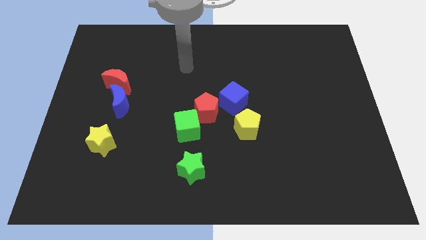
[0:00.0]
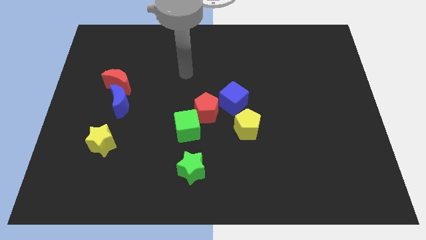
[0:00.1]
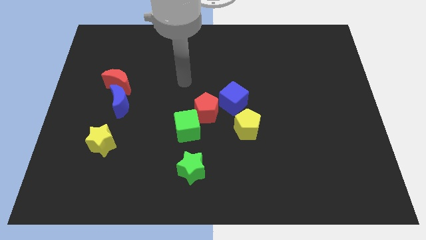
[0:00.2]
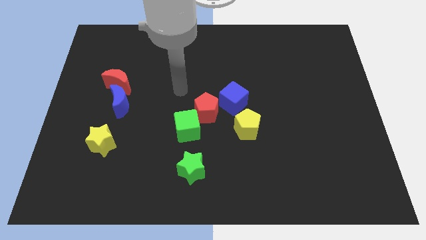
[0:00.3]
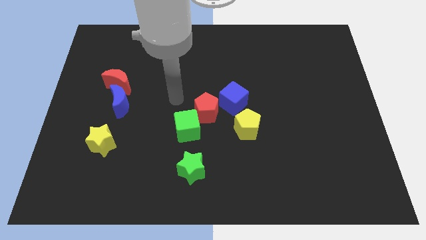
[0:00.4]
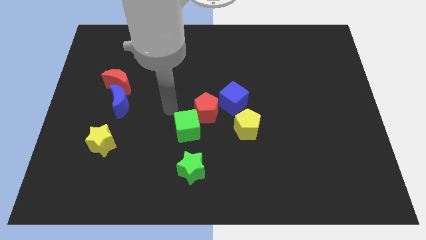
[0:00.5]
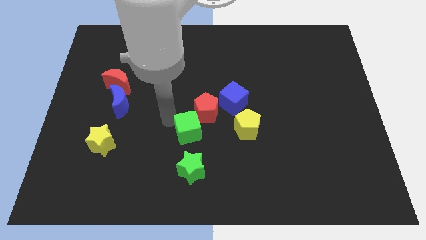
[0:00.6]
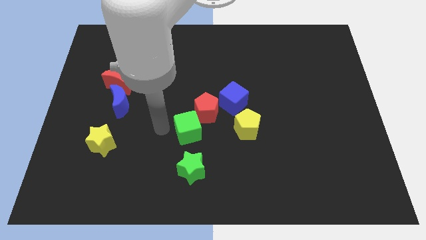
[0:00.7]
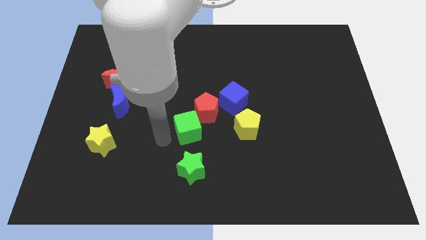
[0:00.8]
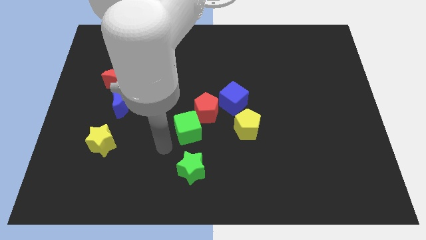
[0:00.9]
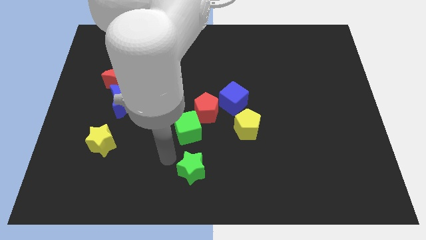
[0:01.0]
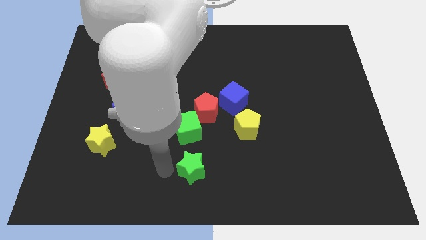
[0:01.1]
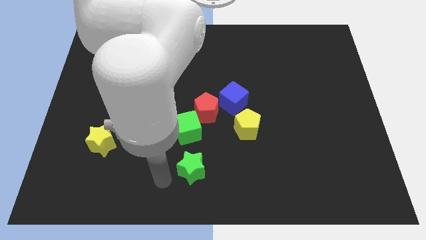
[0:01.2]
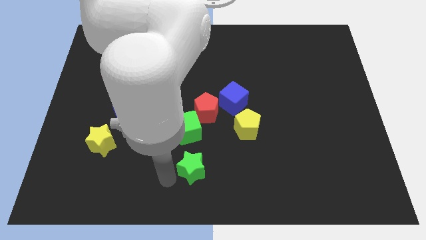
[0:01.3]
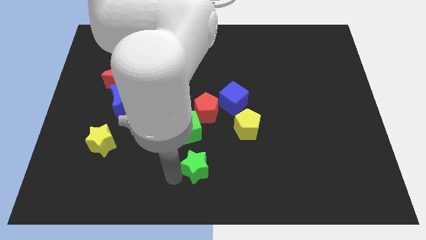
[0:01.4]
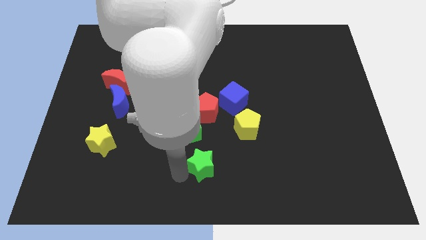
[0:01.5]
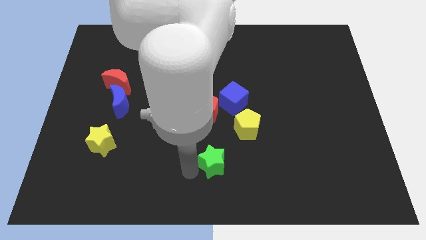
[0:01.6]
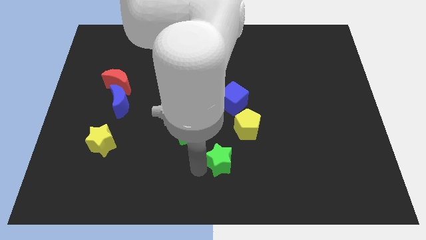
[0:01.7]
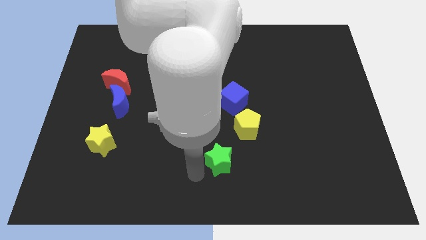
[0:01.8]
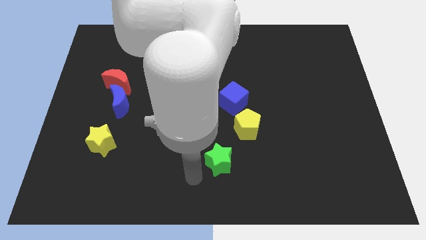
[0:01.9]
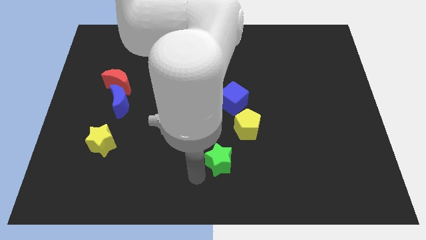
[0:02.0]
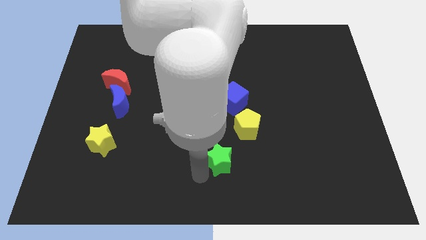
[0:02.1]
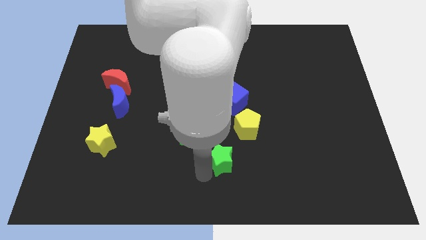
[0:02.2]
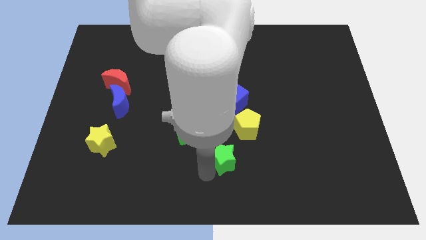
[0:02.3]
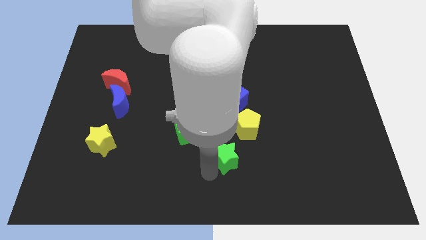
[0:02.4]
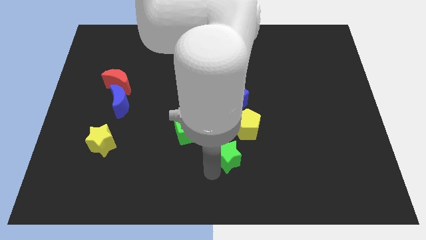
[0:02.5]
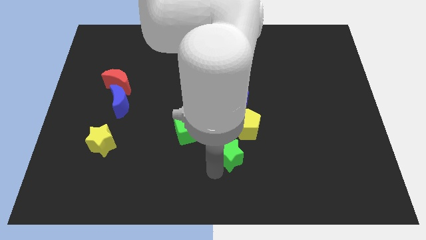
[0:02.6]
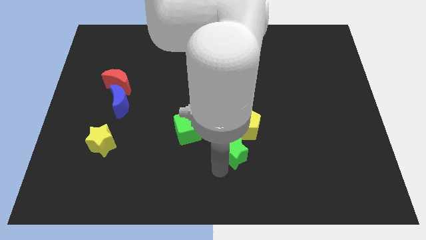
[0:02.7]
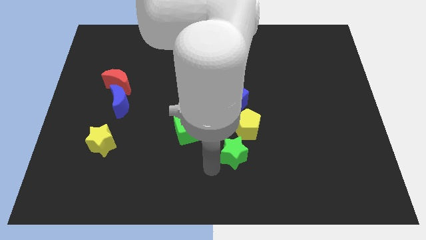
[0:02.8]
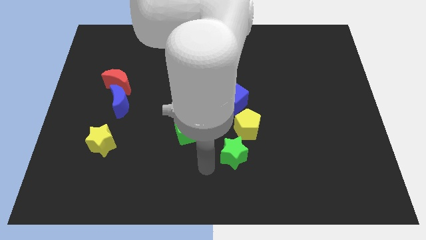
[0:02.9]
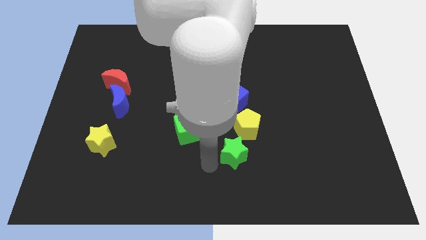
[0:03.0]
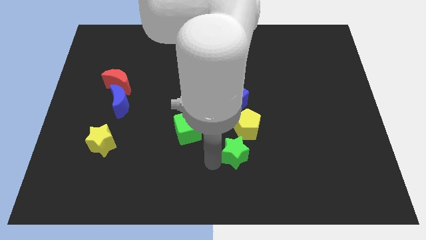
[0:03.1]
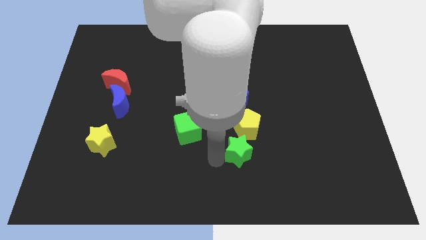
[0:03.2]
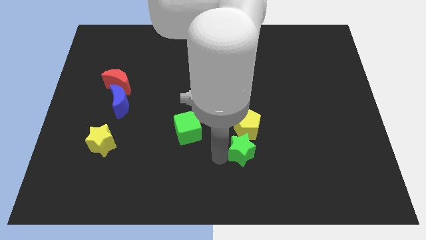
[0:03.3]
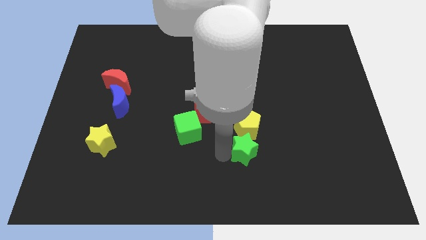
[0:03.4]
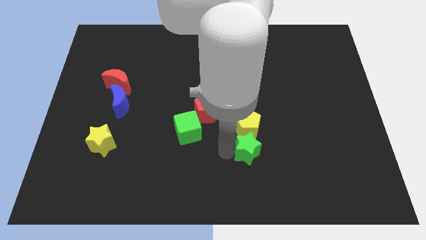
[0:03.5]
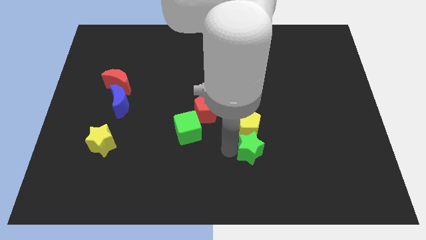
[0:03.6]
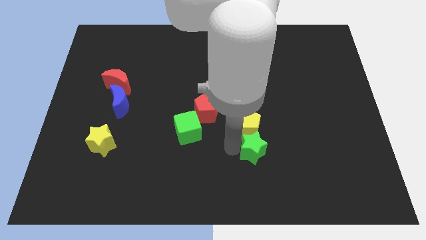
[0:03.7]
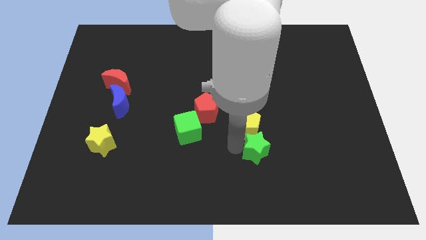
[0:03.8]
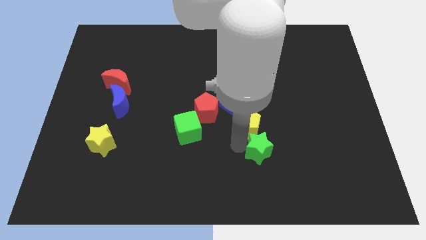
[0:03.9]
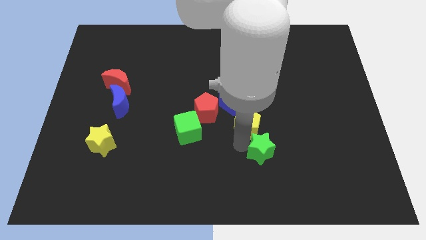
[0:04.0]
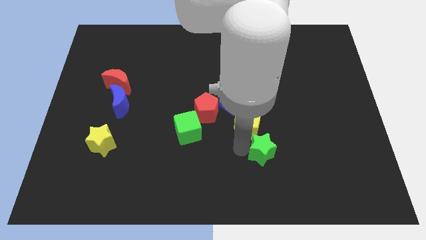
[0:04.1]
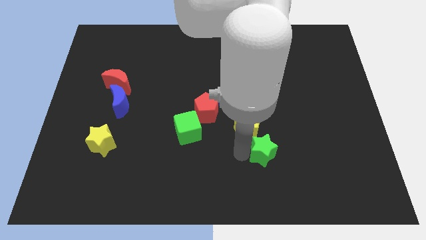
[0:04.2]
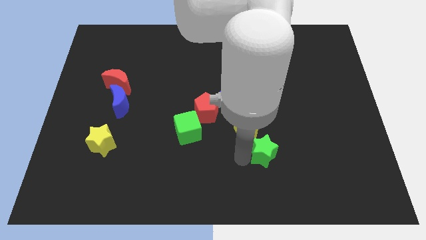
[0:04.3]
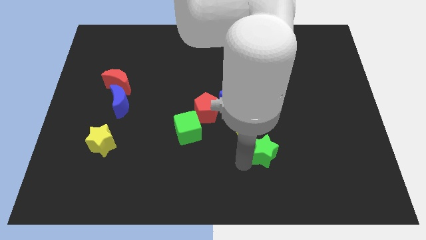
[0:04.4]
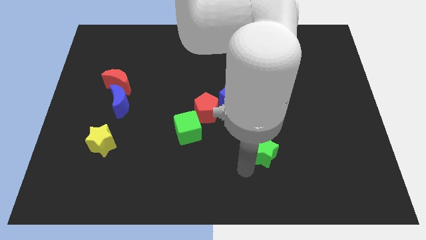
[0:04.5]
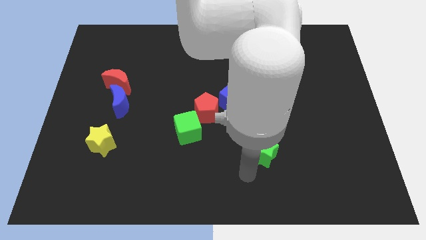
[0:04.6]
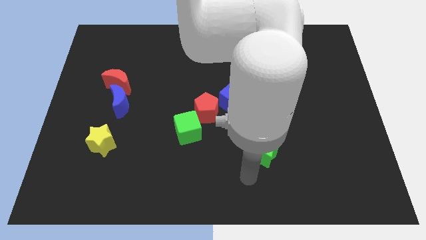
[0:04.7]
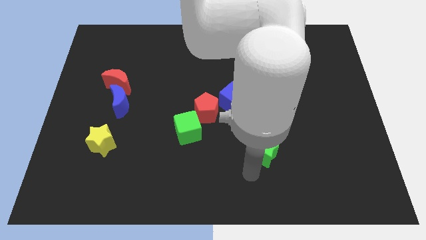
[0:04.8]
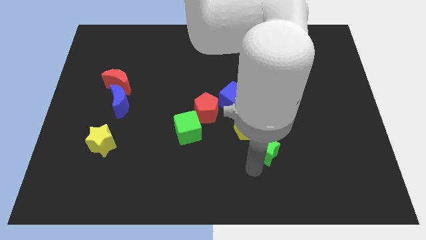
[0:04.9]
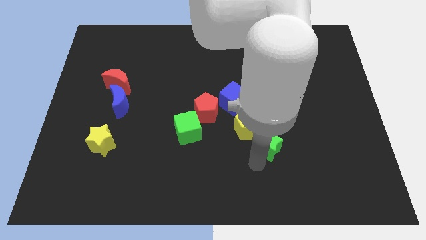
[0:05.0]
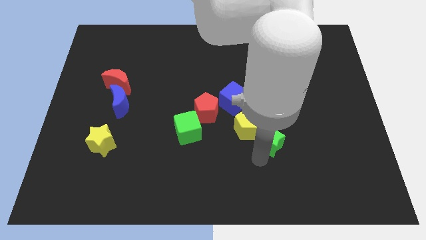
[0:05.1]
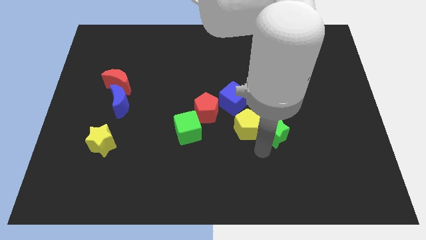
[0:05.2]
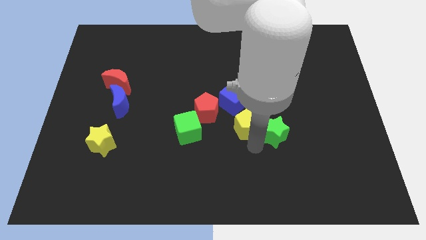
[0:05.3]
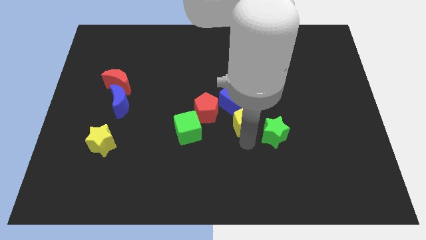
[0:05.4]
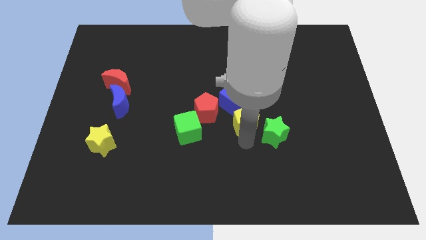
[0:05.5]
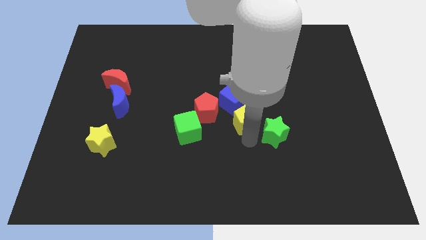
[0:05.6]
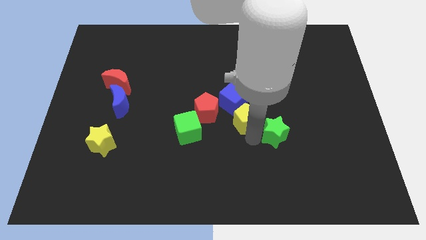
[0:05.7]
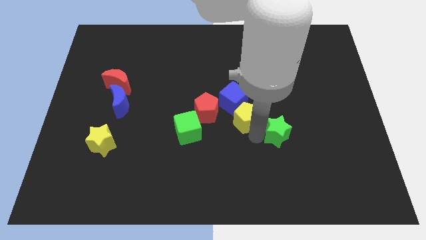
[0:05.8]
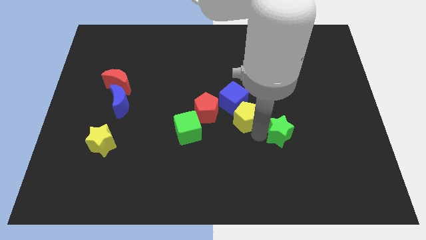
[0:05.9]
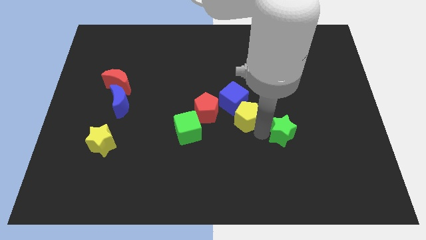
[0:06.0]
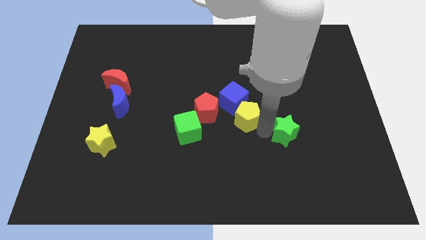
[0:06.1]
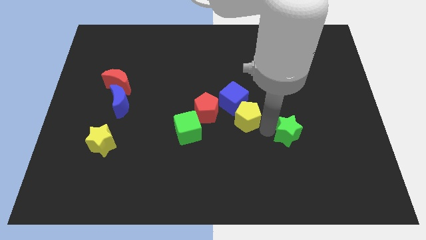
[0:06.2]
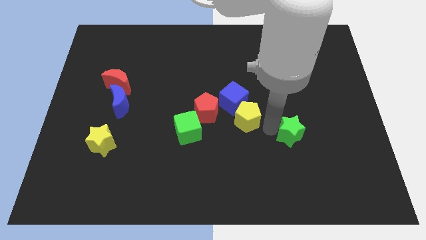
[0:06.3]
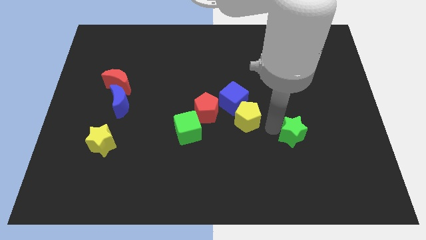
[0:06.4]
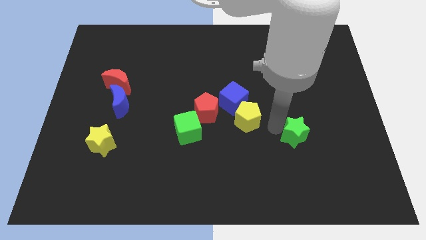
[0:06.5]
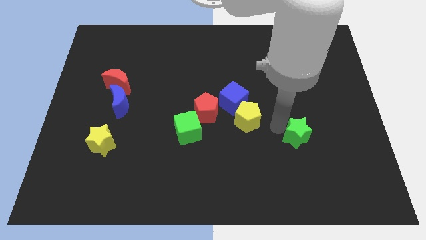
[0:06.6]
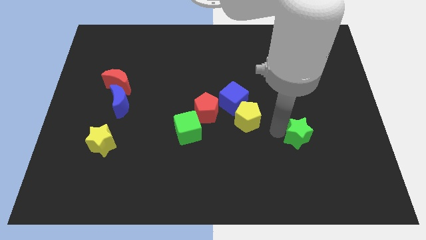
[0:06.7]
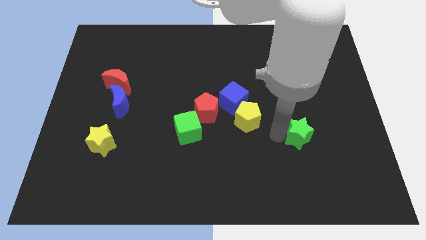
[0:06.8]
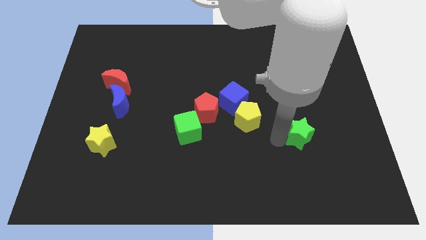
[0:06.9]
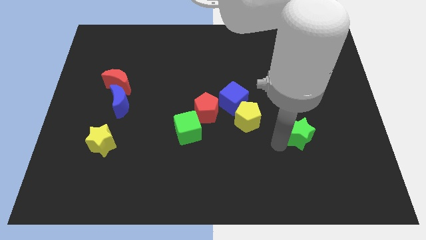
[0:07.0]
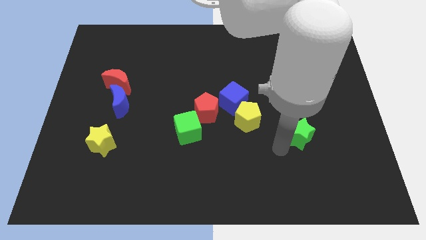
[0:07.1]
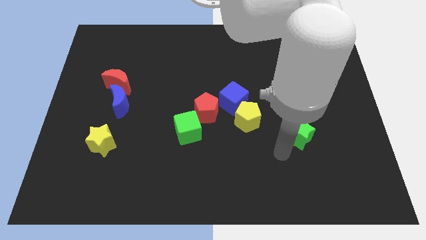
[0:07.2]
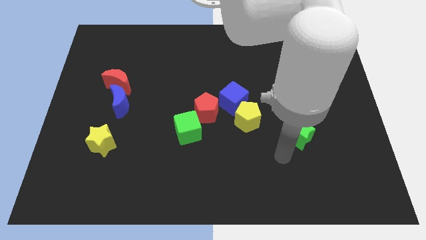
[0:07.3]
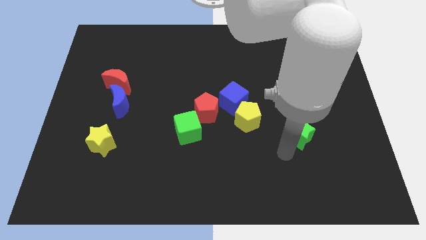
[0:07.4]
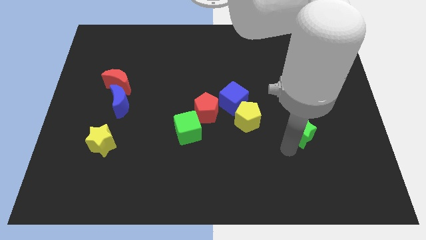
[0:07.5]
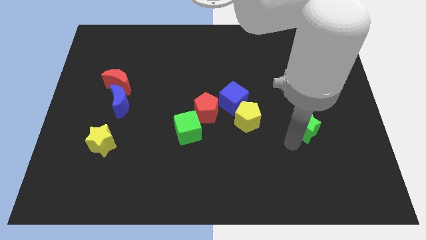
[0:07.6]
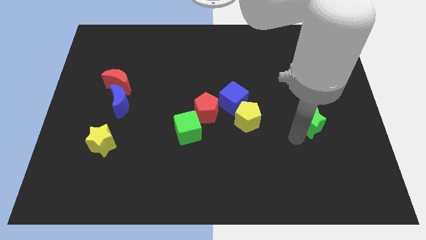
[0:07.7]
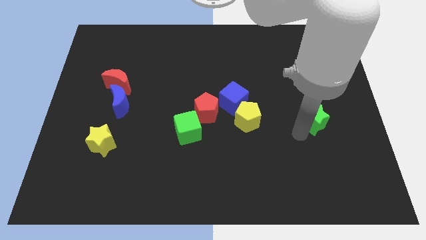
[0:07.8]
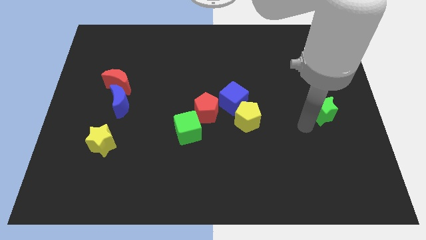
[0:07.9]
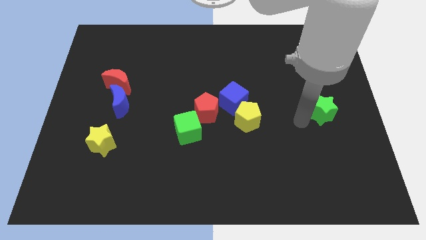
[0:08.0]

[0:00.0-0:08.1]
slide the green star to the right side of the board
